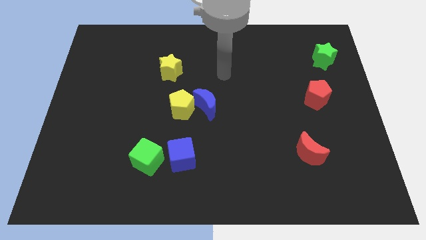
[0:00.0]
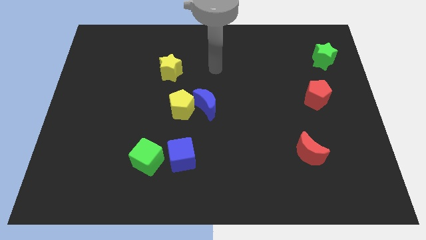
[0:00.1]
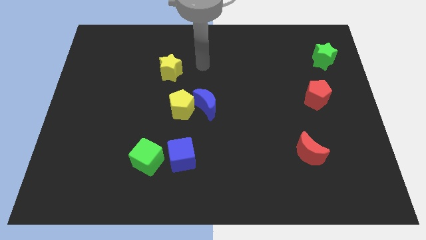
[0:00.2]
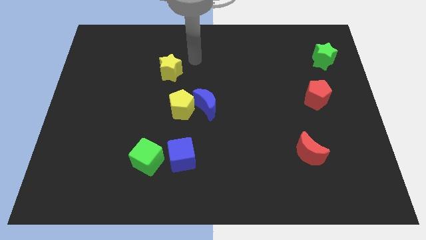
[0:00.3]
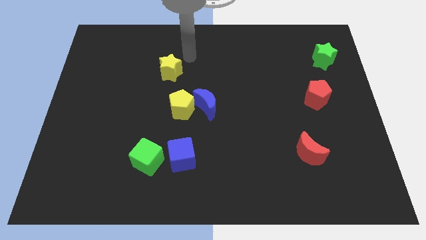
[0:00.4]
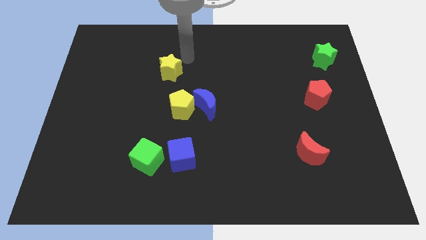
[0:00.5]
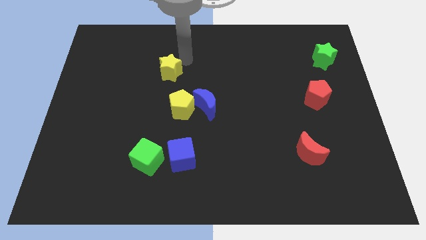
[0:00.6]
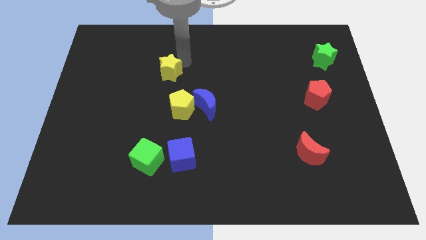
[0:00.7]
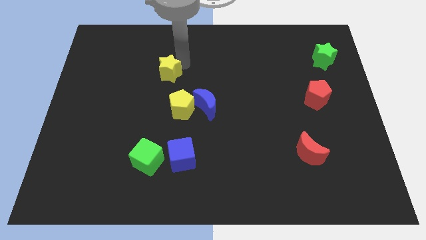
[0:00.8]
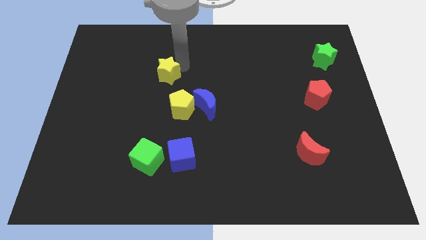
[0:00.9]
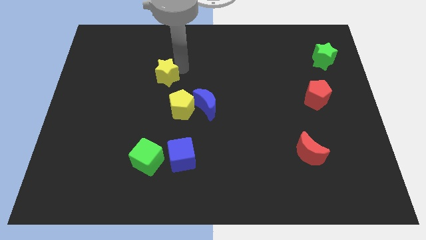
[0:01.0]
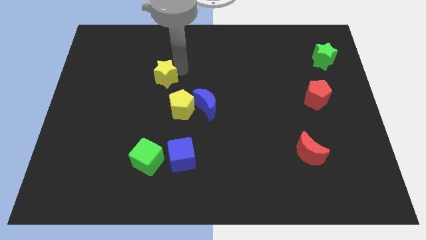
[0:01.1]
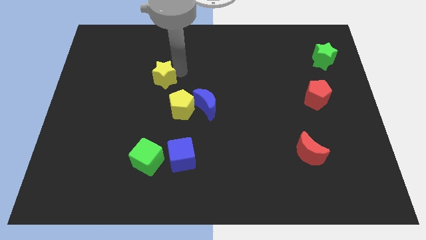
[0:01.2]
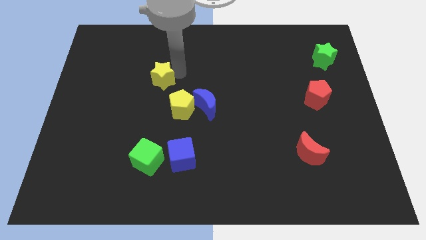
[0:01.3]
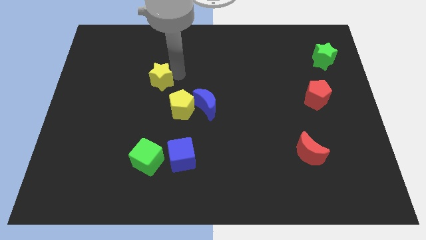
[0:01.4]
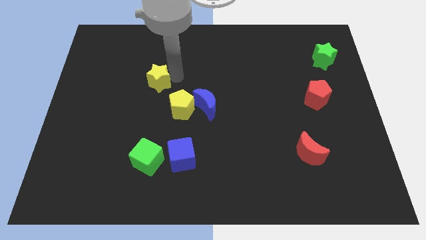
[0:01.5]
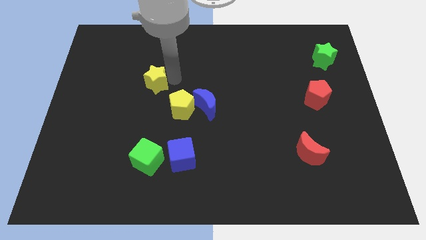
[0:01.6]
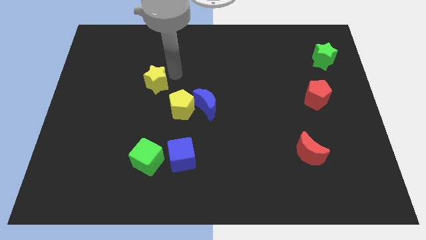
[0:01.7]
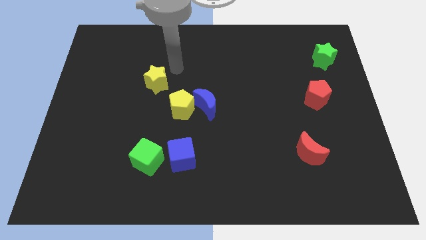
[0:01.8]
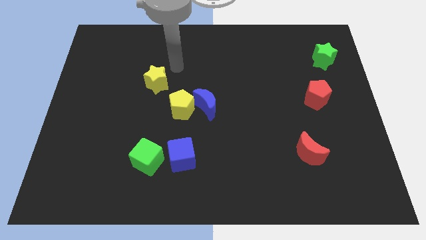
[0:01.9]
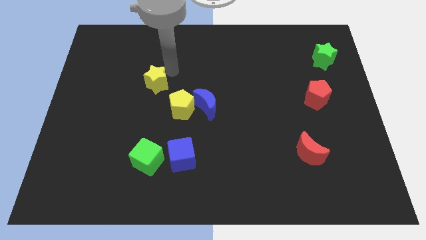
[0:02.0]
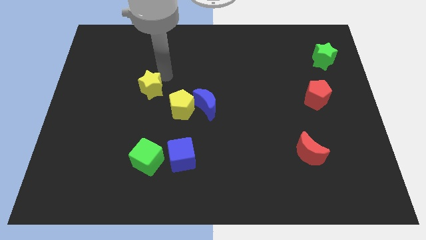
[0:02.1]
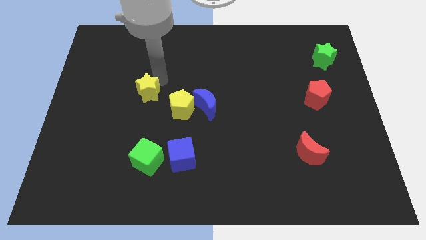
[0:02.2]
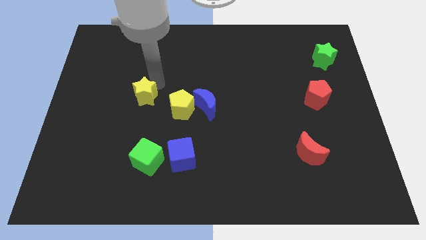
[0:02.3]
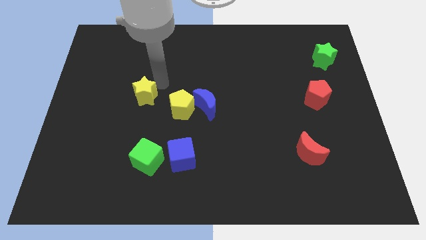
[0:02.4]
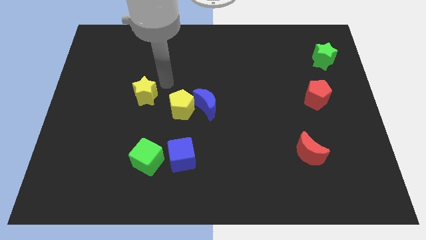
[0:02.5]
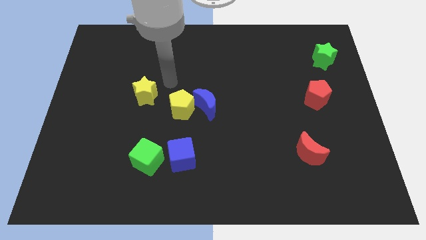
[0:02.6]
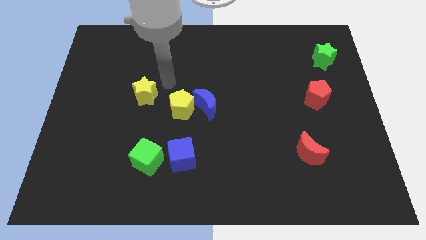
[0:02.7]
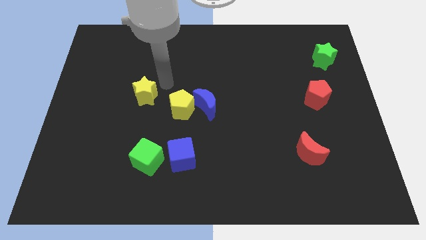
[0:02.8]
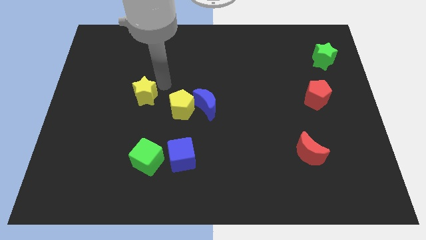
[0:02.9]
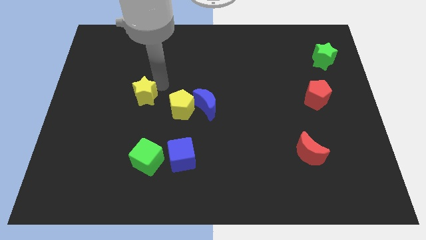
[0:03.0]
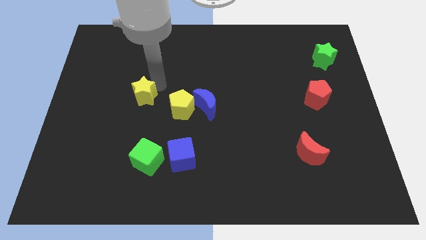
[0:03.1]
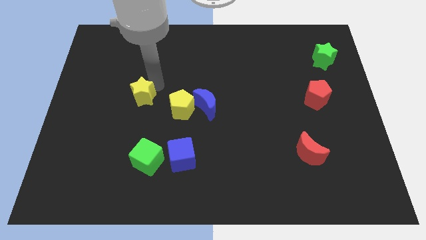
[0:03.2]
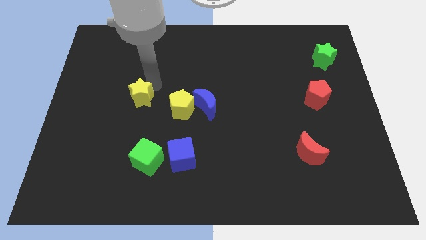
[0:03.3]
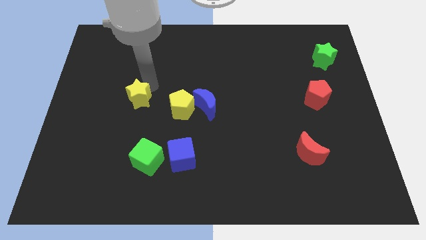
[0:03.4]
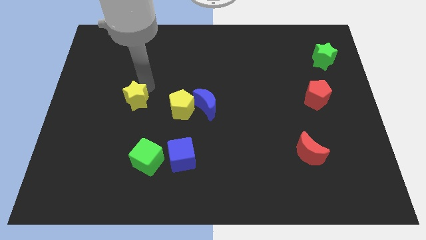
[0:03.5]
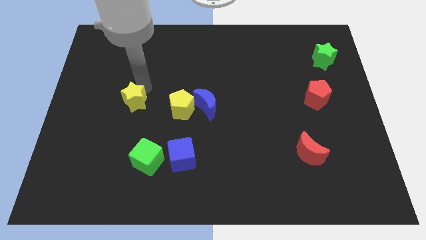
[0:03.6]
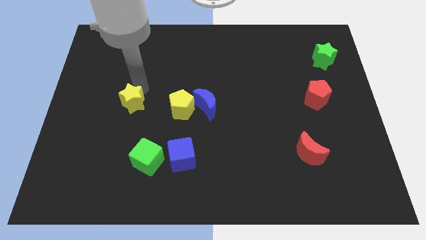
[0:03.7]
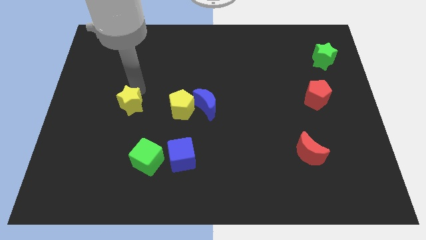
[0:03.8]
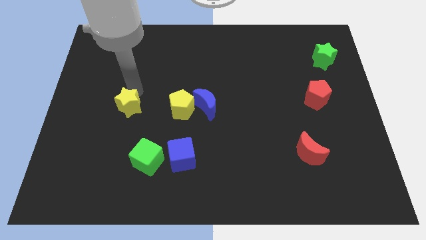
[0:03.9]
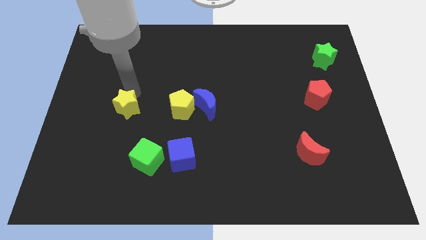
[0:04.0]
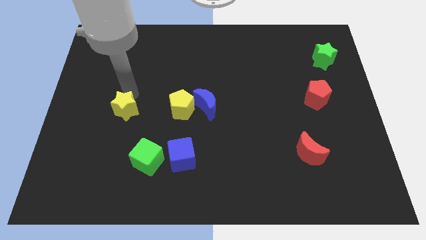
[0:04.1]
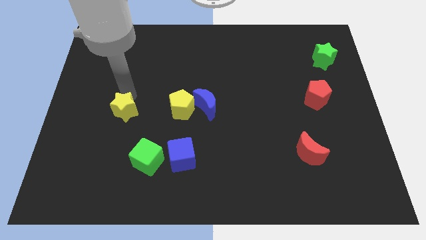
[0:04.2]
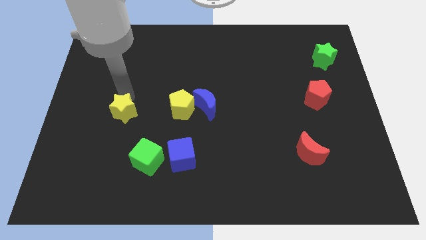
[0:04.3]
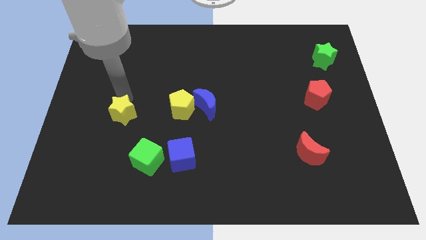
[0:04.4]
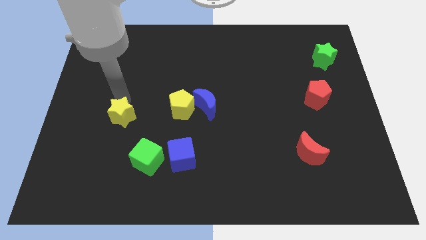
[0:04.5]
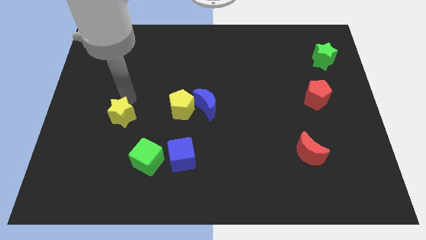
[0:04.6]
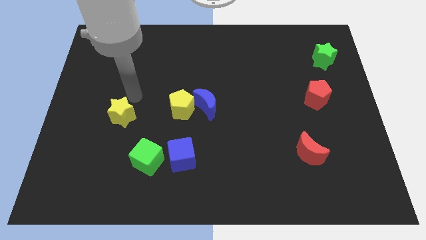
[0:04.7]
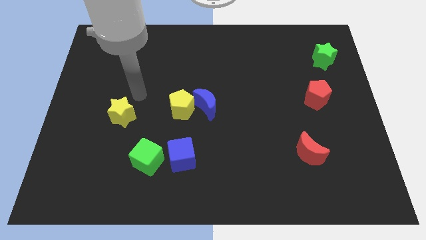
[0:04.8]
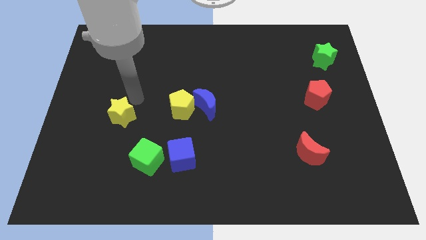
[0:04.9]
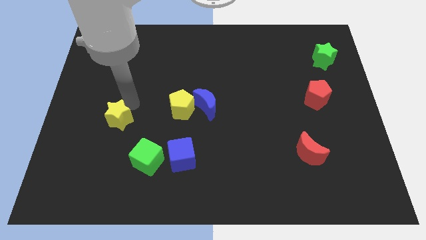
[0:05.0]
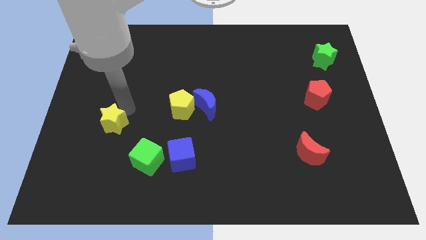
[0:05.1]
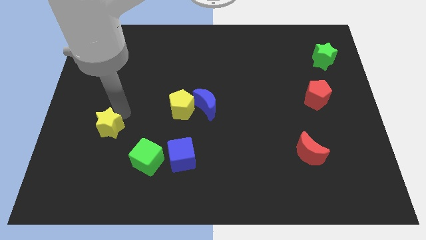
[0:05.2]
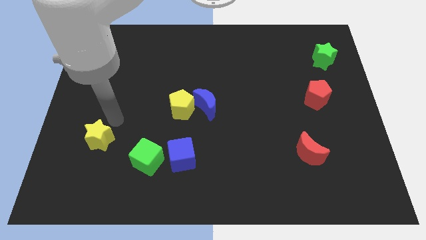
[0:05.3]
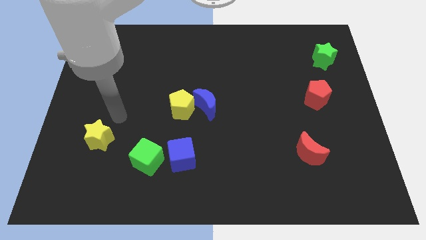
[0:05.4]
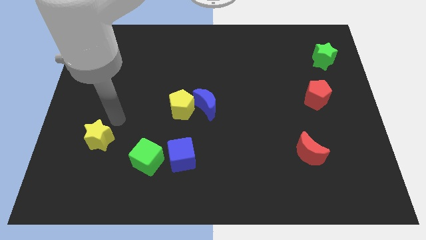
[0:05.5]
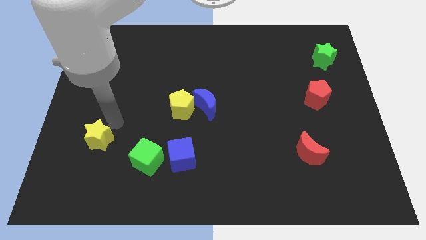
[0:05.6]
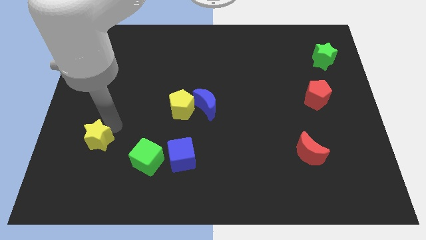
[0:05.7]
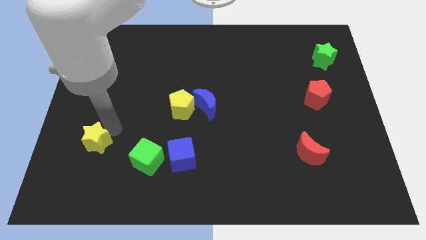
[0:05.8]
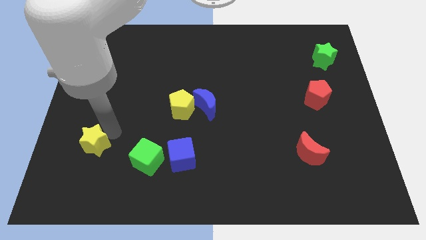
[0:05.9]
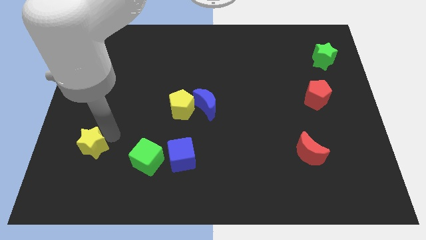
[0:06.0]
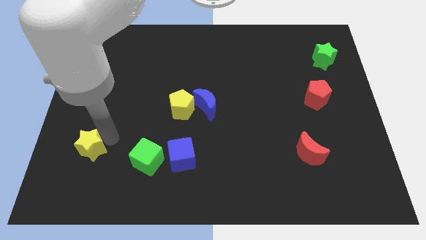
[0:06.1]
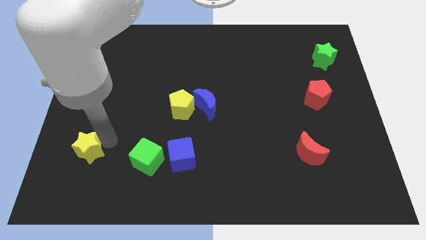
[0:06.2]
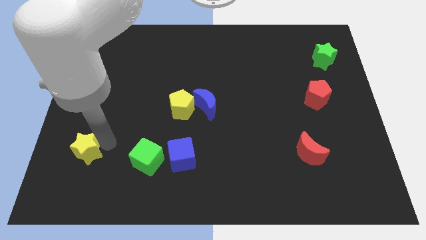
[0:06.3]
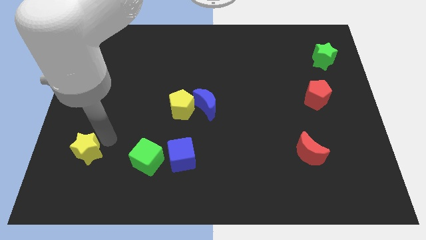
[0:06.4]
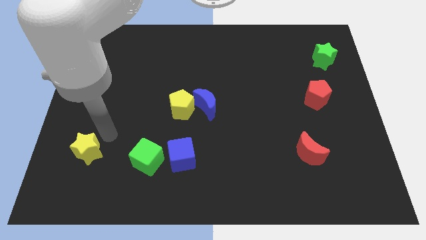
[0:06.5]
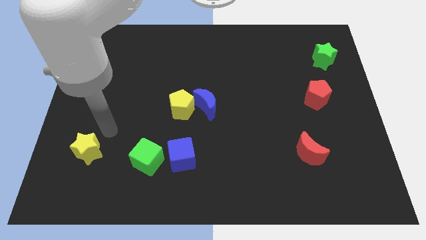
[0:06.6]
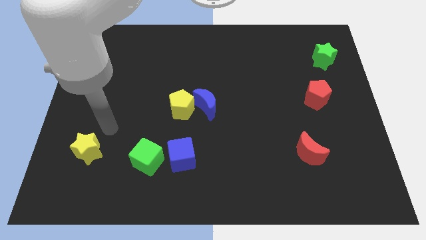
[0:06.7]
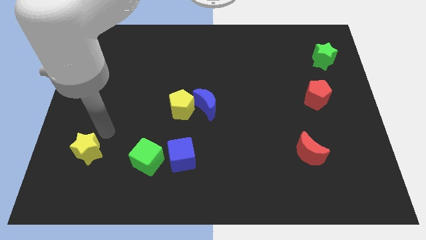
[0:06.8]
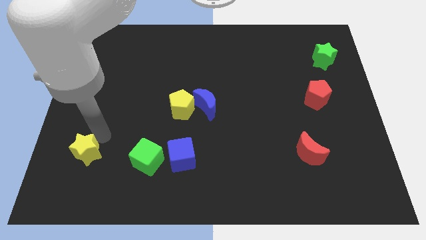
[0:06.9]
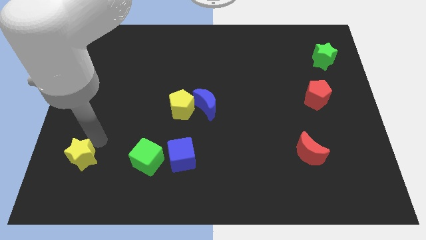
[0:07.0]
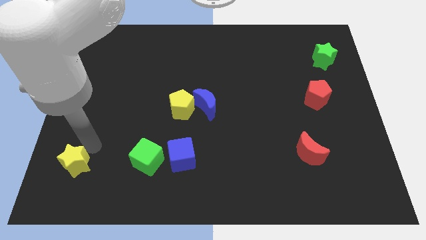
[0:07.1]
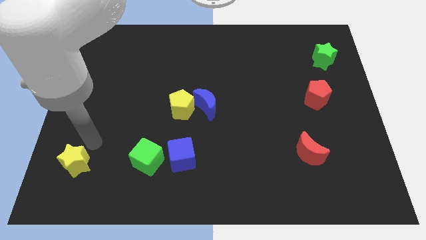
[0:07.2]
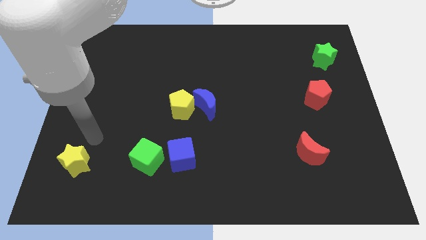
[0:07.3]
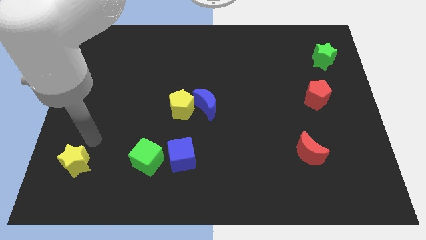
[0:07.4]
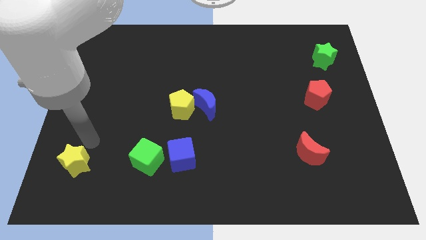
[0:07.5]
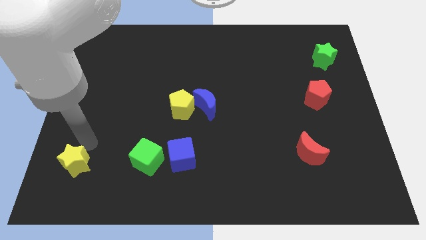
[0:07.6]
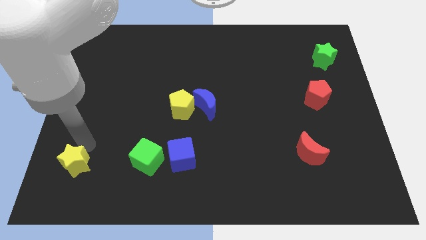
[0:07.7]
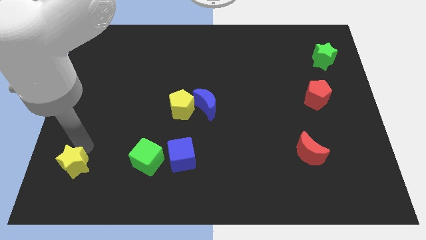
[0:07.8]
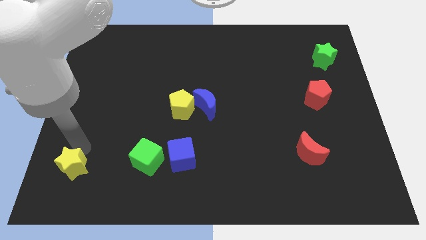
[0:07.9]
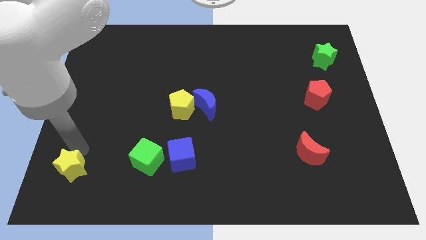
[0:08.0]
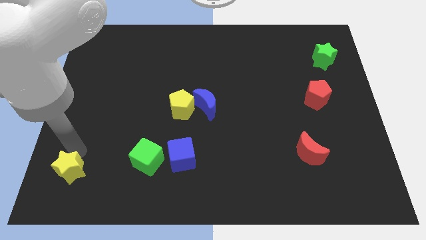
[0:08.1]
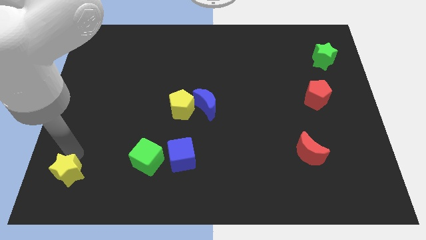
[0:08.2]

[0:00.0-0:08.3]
move the yellow star to the bottom left corner

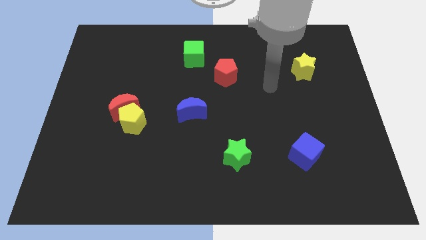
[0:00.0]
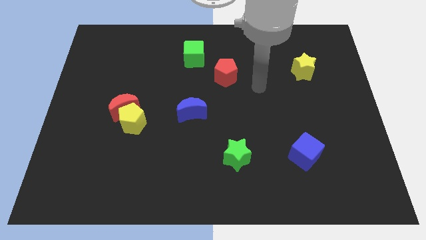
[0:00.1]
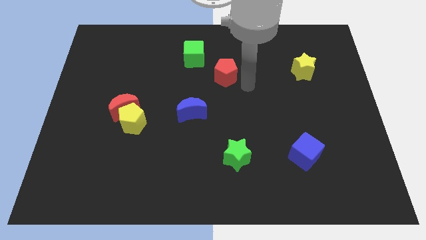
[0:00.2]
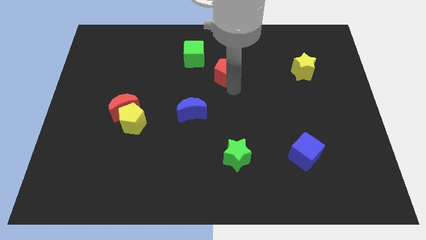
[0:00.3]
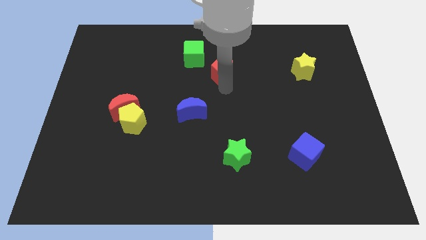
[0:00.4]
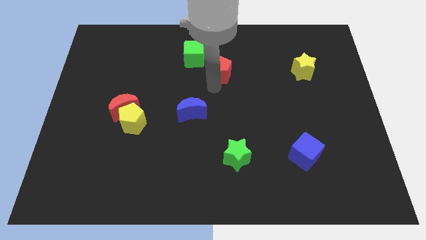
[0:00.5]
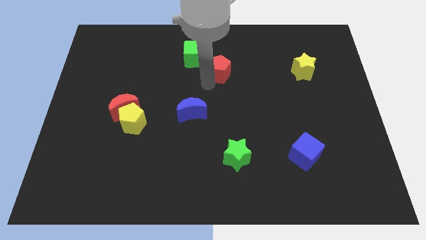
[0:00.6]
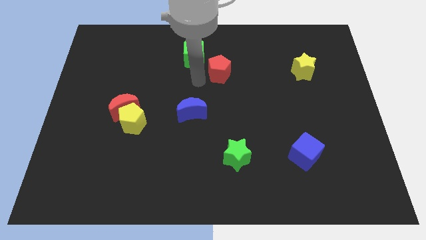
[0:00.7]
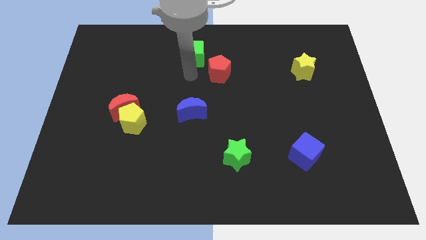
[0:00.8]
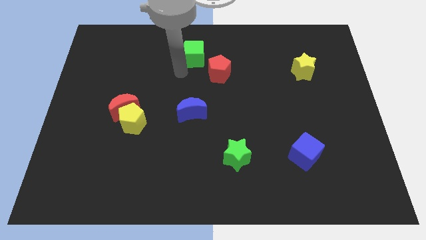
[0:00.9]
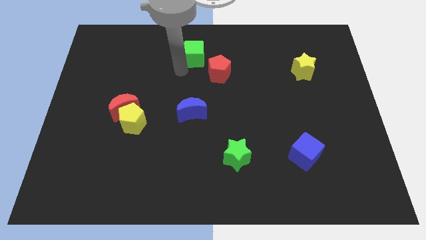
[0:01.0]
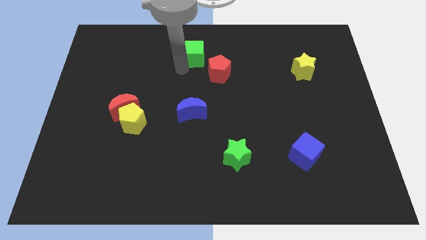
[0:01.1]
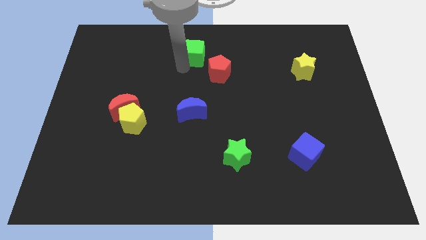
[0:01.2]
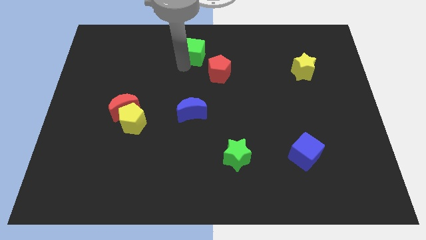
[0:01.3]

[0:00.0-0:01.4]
push the green cube to the top
